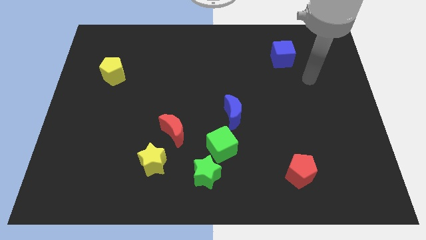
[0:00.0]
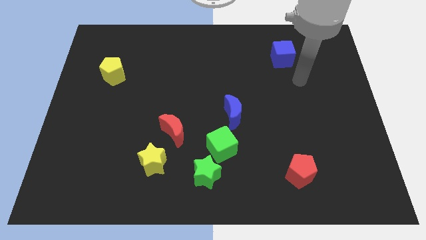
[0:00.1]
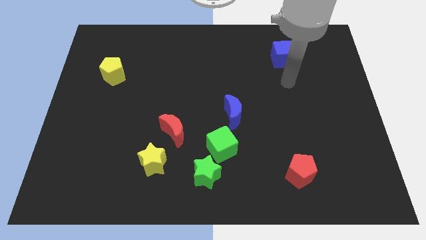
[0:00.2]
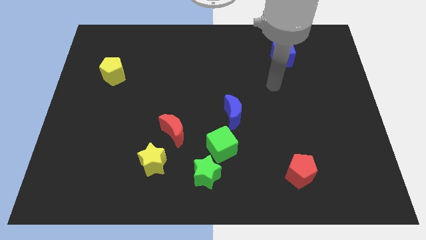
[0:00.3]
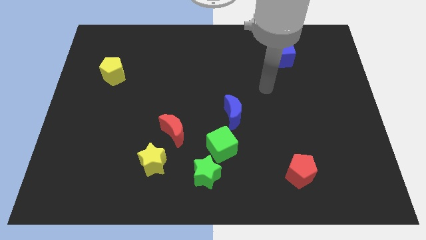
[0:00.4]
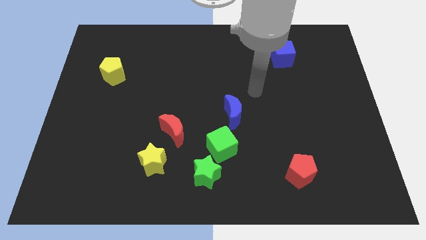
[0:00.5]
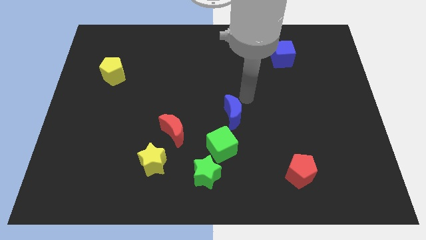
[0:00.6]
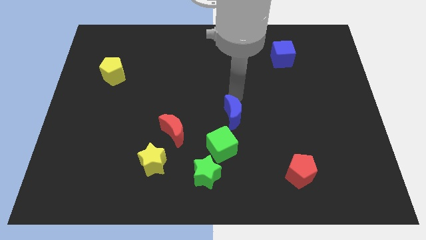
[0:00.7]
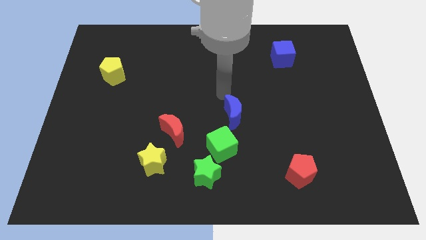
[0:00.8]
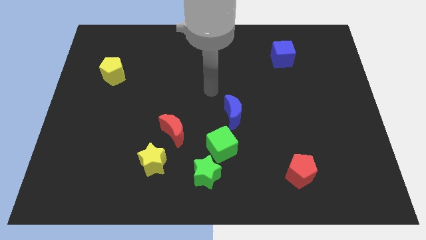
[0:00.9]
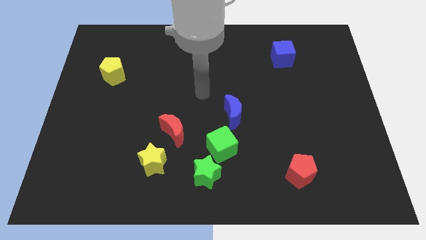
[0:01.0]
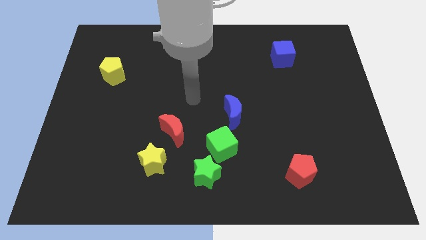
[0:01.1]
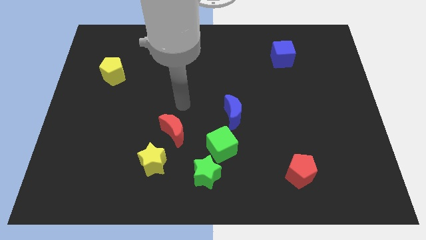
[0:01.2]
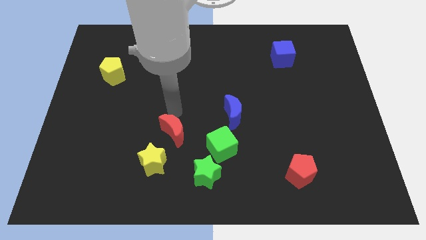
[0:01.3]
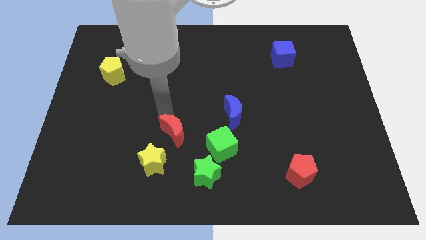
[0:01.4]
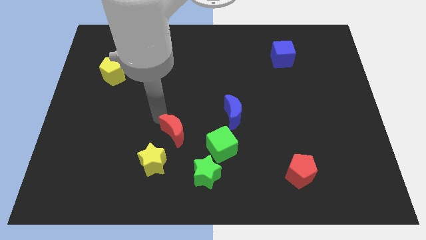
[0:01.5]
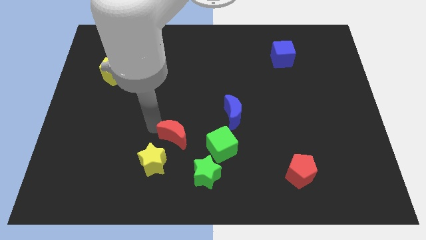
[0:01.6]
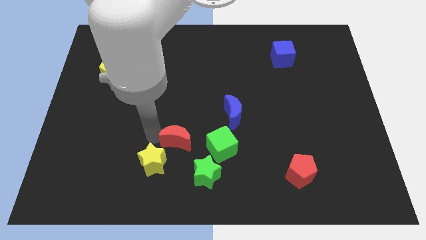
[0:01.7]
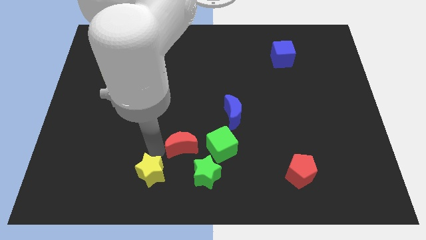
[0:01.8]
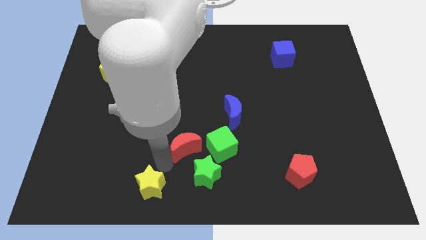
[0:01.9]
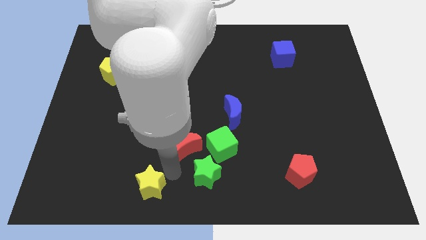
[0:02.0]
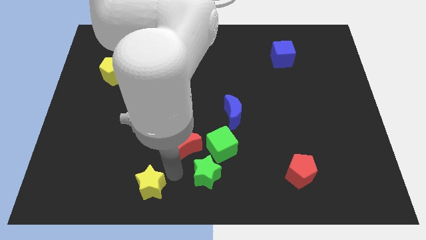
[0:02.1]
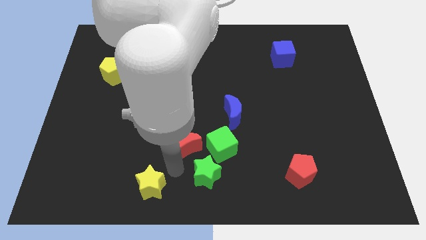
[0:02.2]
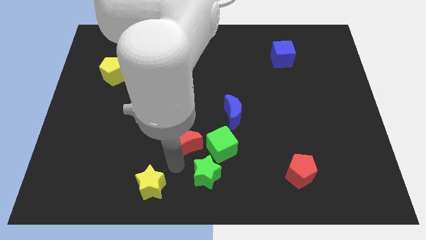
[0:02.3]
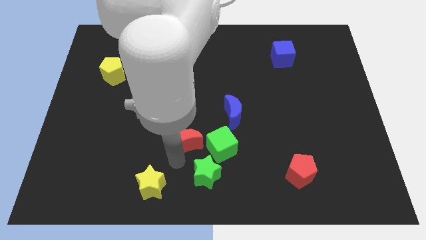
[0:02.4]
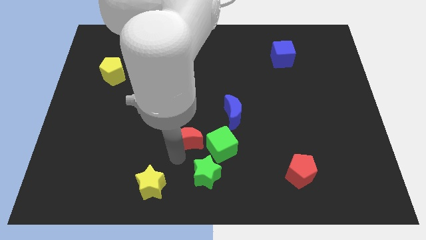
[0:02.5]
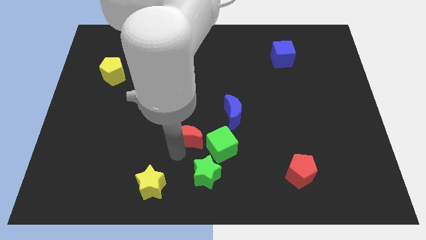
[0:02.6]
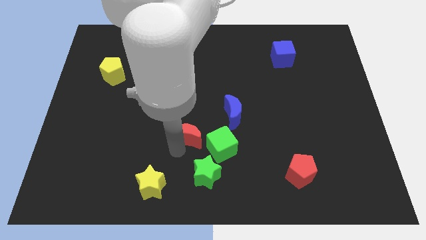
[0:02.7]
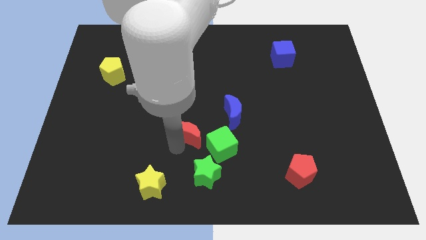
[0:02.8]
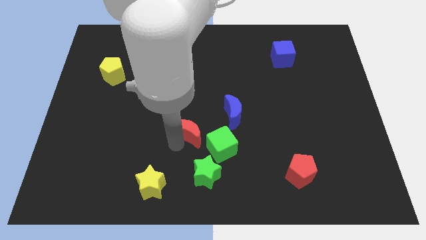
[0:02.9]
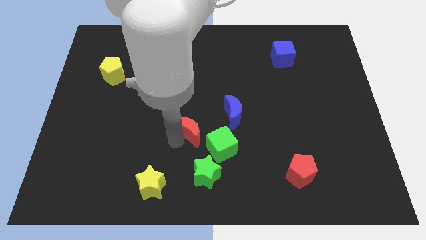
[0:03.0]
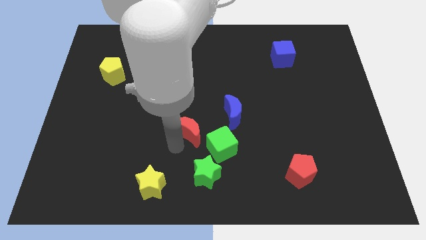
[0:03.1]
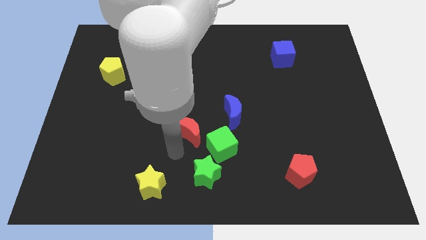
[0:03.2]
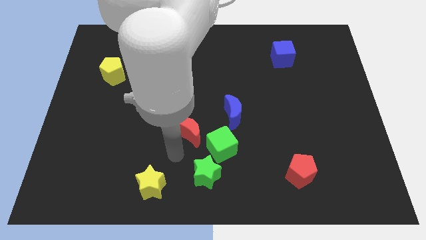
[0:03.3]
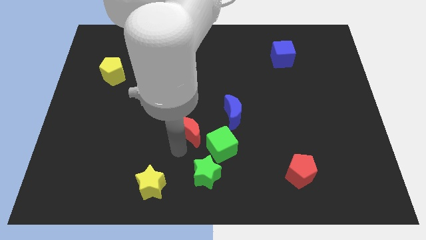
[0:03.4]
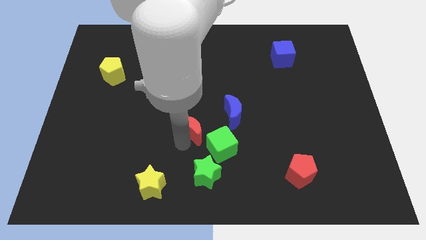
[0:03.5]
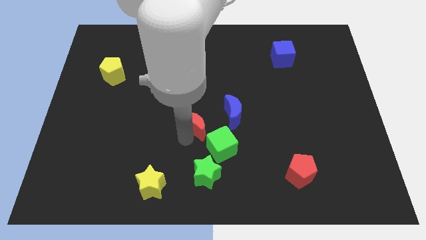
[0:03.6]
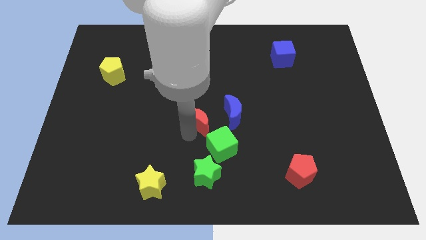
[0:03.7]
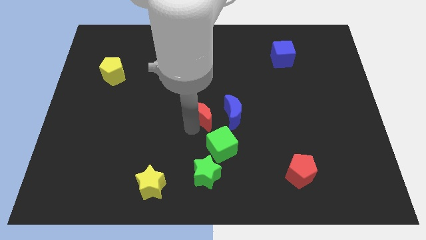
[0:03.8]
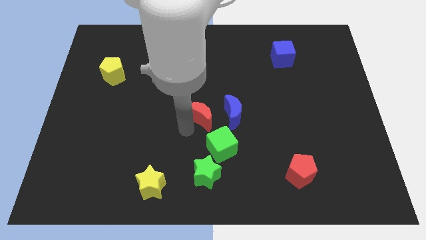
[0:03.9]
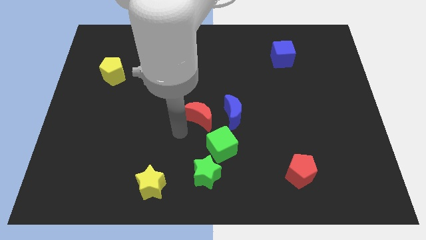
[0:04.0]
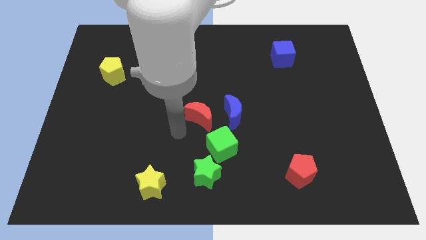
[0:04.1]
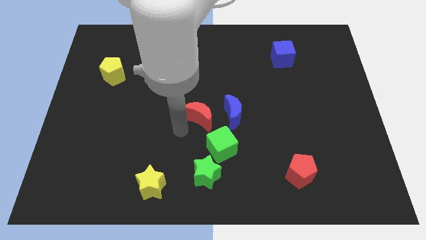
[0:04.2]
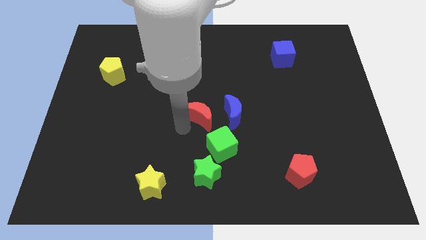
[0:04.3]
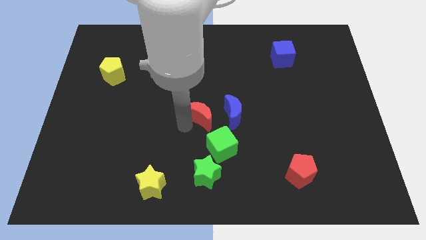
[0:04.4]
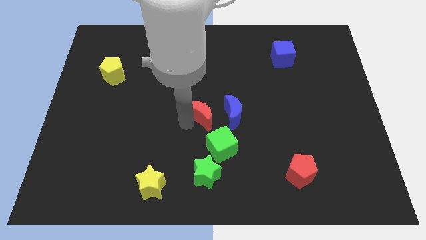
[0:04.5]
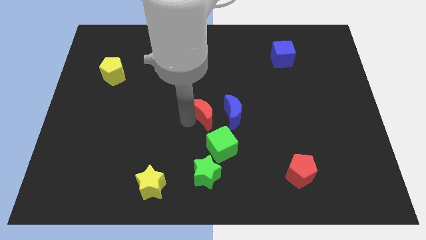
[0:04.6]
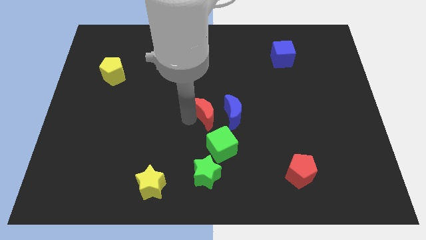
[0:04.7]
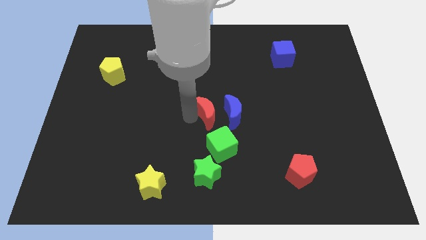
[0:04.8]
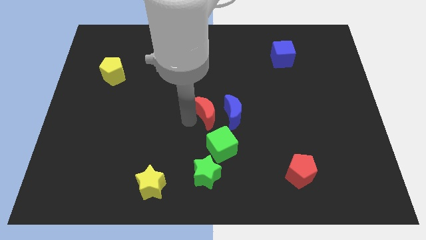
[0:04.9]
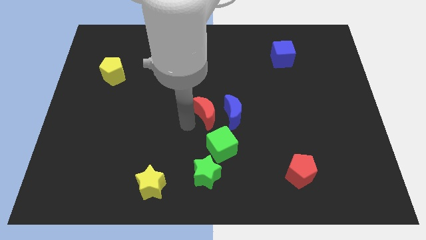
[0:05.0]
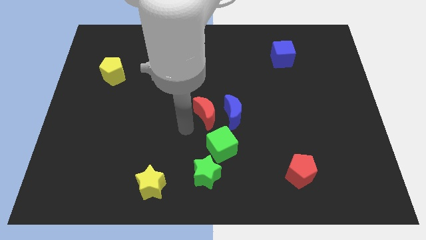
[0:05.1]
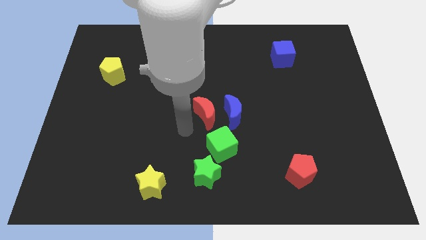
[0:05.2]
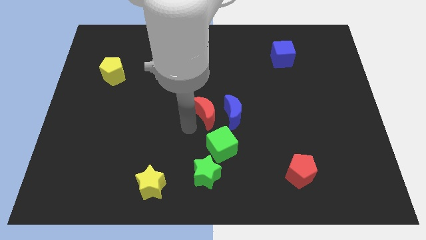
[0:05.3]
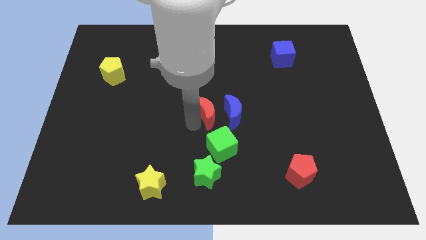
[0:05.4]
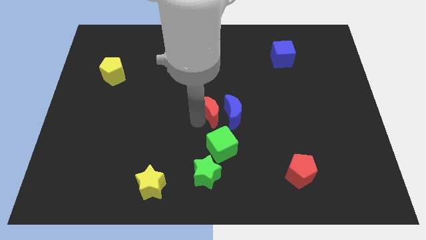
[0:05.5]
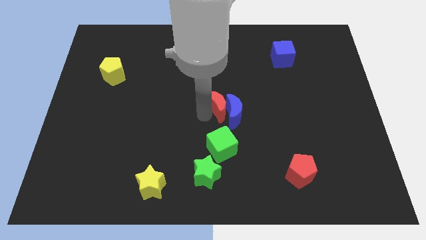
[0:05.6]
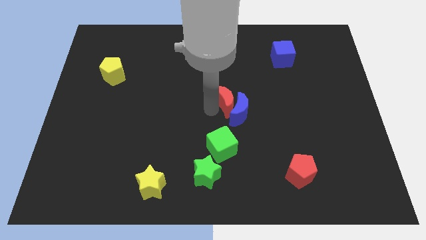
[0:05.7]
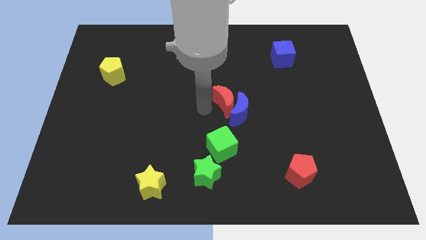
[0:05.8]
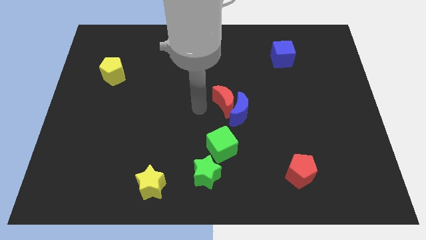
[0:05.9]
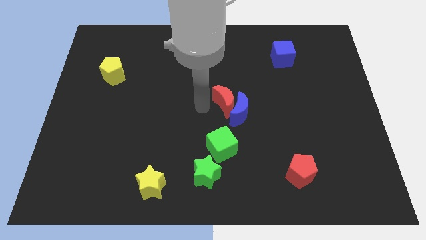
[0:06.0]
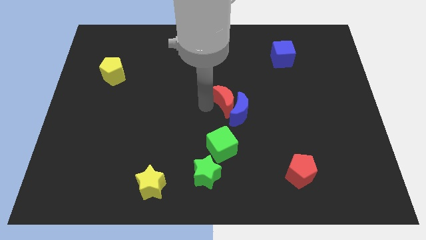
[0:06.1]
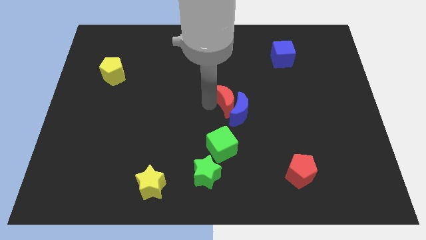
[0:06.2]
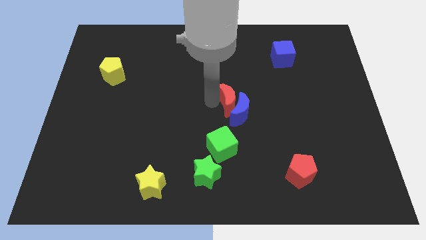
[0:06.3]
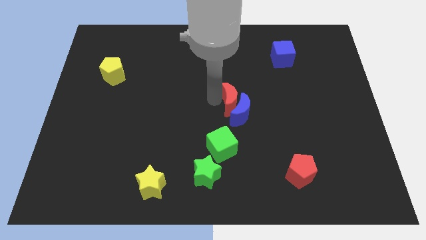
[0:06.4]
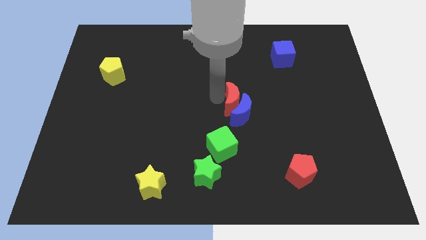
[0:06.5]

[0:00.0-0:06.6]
put the red moon to the top right of the blue moon
